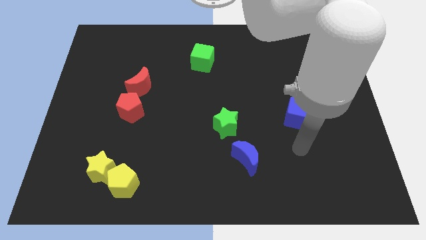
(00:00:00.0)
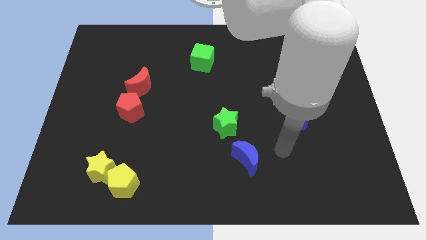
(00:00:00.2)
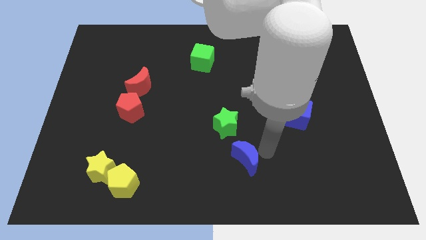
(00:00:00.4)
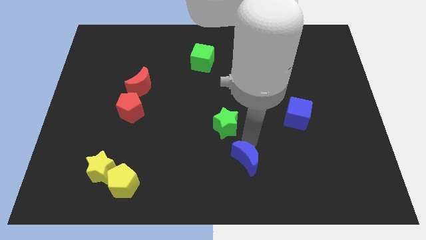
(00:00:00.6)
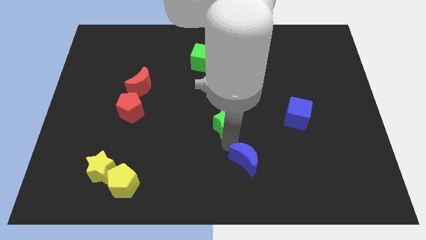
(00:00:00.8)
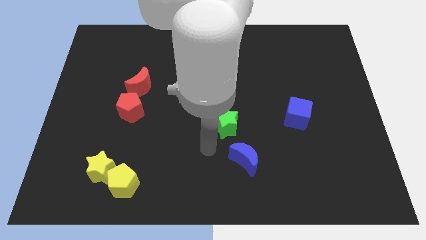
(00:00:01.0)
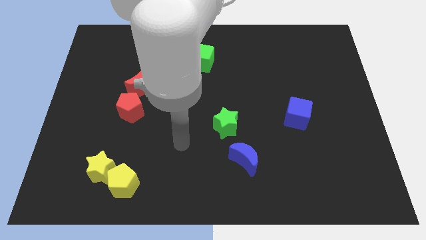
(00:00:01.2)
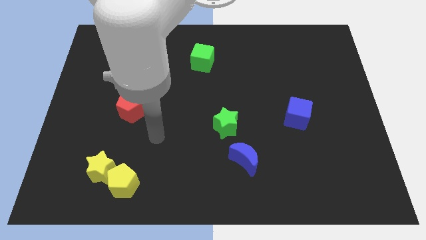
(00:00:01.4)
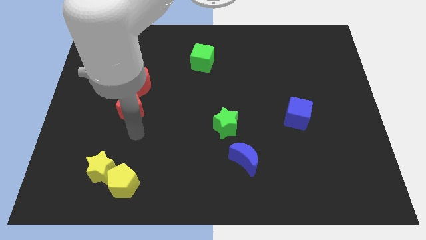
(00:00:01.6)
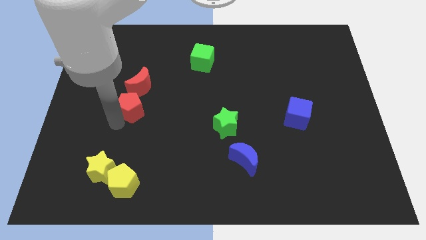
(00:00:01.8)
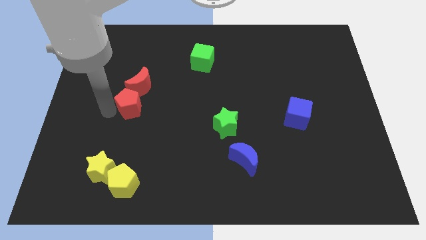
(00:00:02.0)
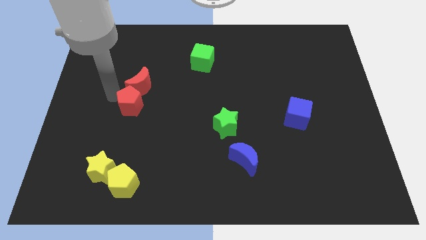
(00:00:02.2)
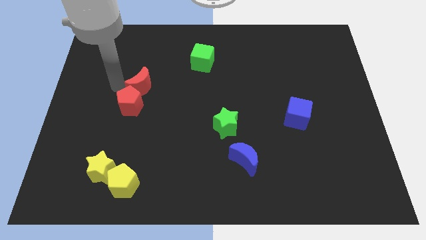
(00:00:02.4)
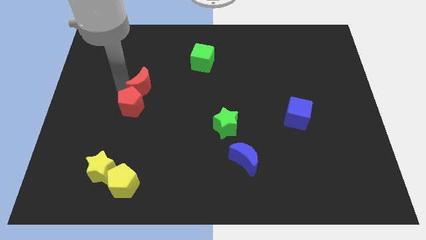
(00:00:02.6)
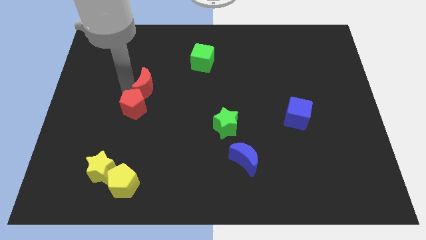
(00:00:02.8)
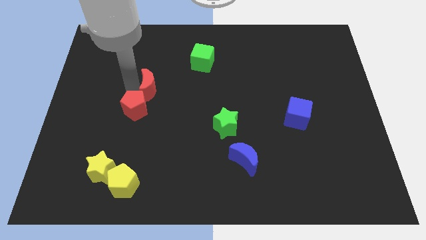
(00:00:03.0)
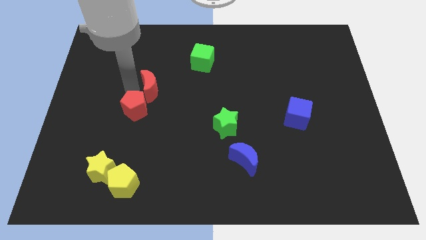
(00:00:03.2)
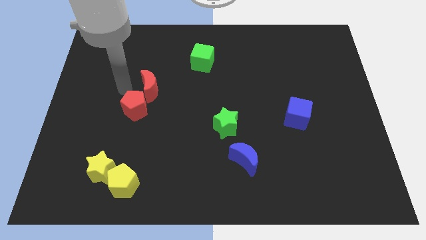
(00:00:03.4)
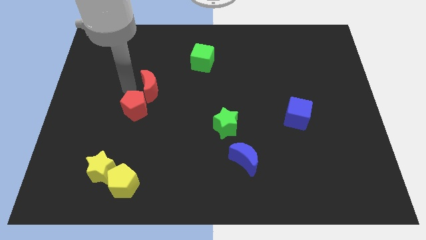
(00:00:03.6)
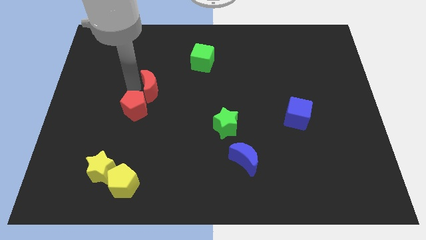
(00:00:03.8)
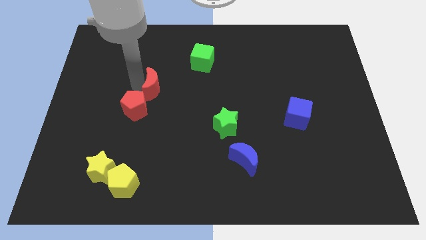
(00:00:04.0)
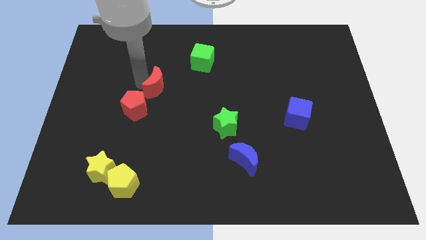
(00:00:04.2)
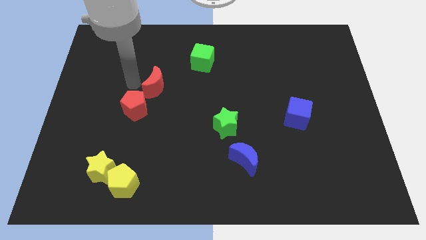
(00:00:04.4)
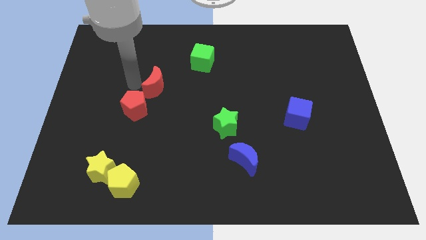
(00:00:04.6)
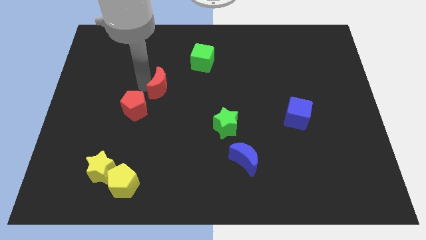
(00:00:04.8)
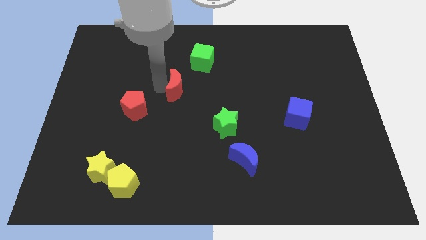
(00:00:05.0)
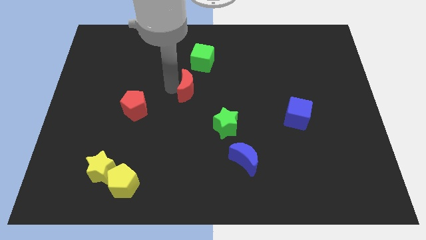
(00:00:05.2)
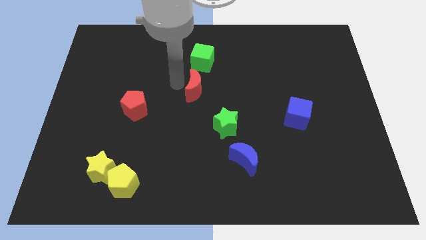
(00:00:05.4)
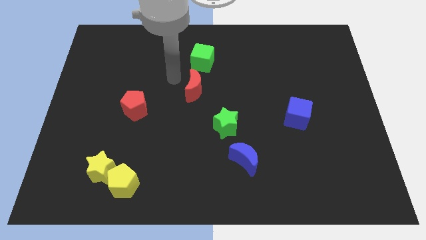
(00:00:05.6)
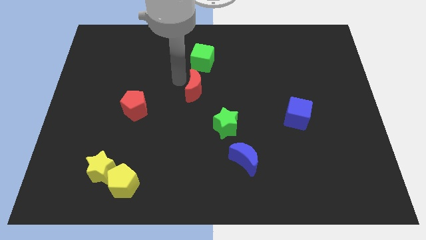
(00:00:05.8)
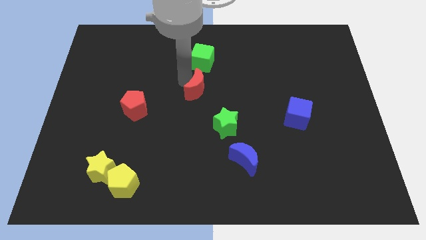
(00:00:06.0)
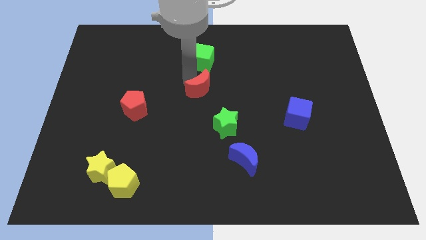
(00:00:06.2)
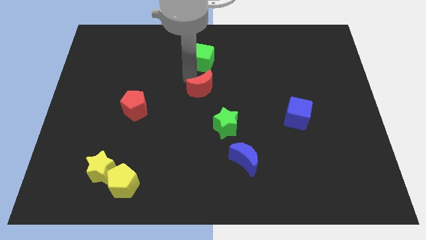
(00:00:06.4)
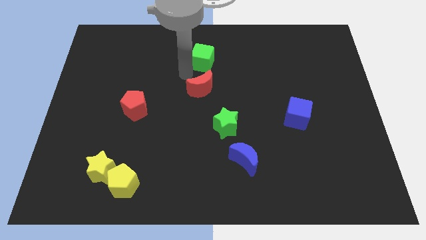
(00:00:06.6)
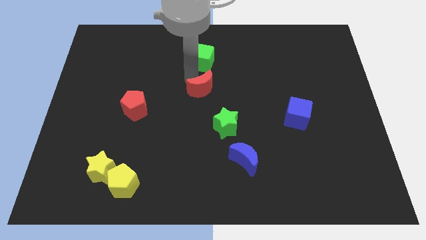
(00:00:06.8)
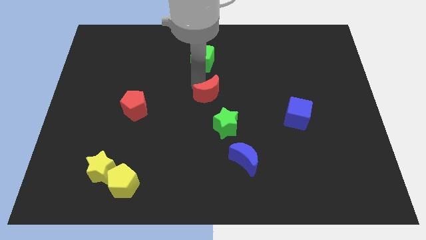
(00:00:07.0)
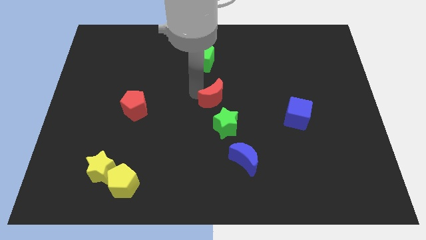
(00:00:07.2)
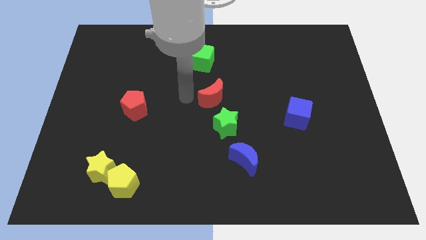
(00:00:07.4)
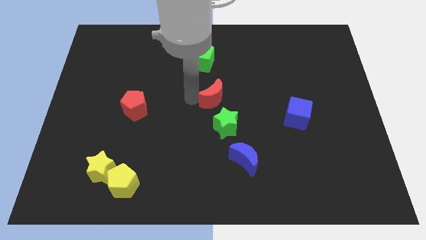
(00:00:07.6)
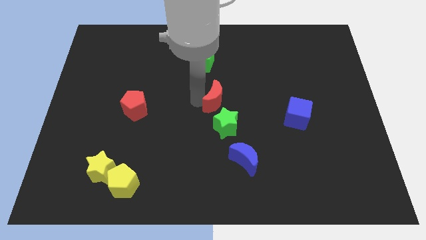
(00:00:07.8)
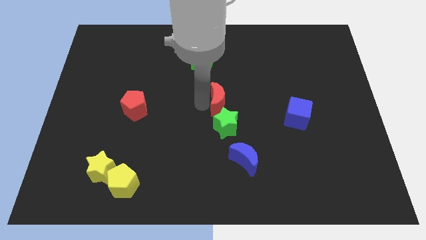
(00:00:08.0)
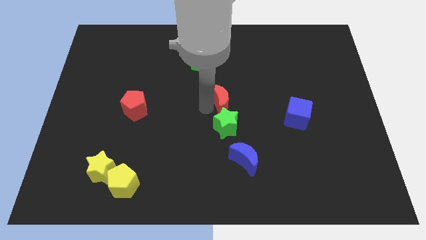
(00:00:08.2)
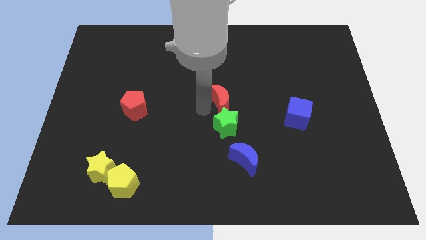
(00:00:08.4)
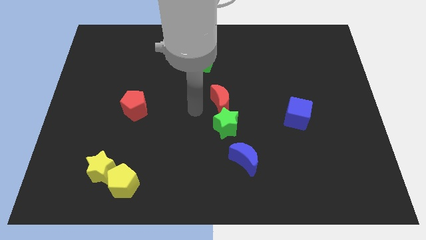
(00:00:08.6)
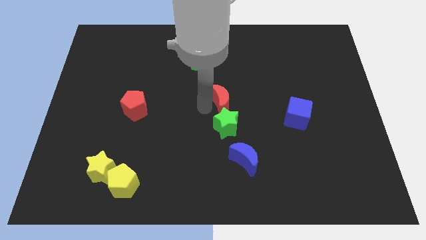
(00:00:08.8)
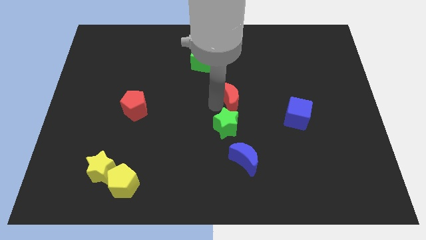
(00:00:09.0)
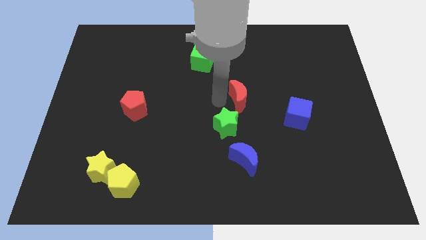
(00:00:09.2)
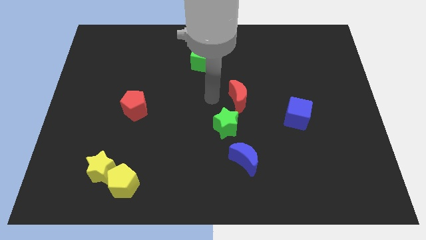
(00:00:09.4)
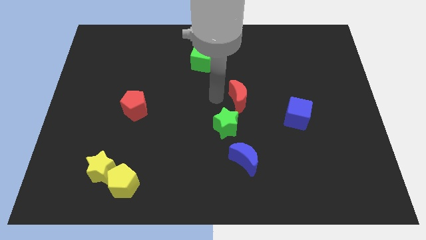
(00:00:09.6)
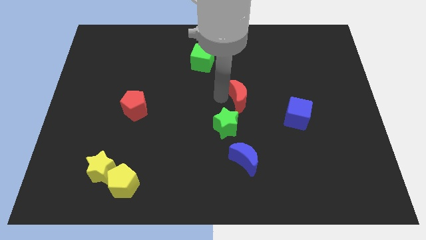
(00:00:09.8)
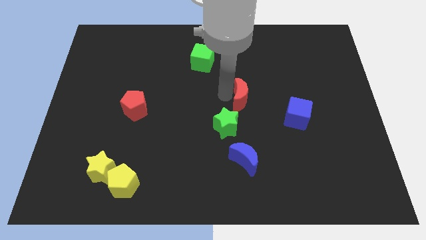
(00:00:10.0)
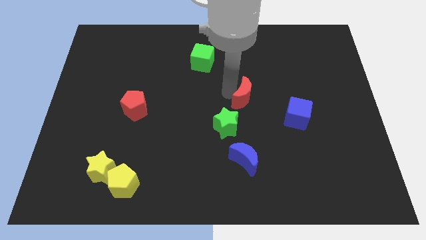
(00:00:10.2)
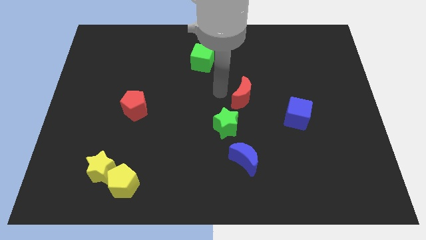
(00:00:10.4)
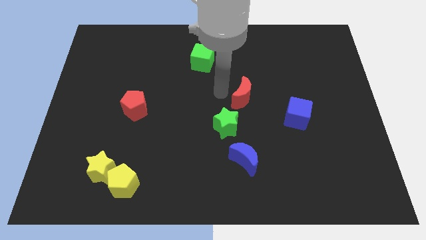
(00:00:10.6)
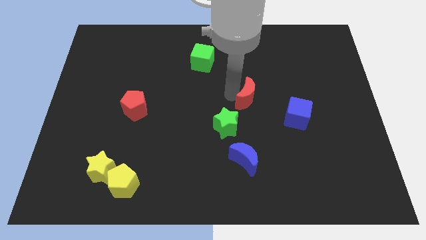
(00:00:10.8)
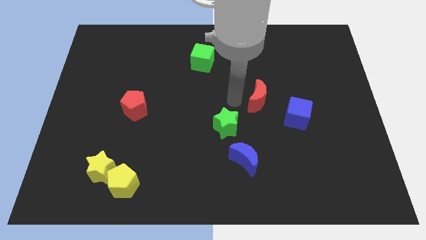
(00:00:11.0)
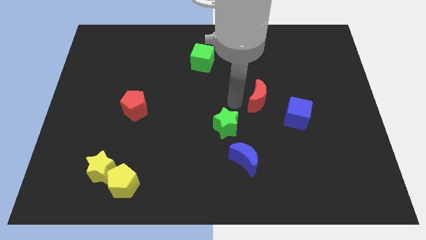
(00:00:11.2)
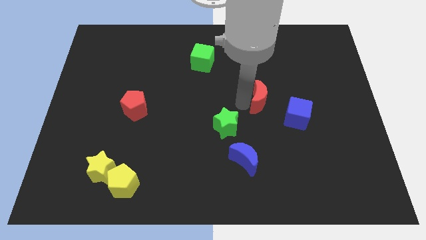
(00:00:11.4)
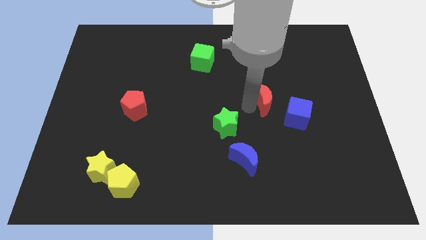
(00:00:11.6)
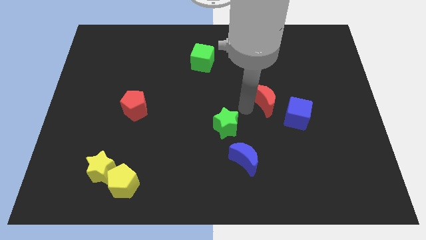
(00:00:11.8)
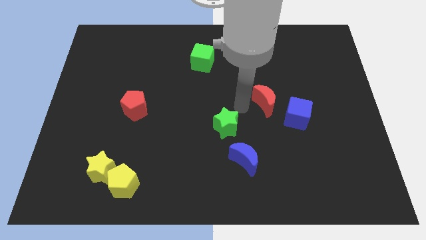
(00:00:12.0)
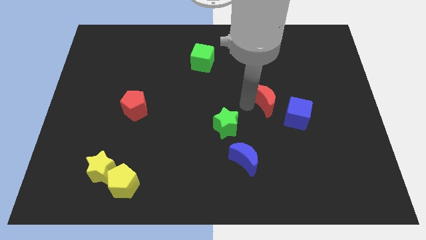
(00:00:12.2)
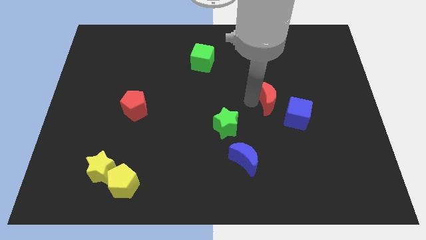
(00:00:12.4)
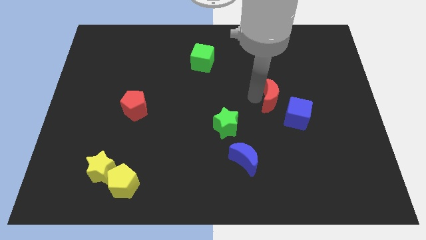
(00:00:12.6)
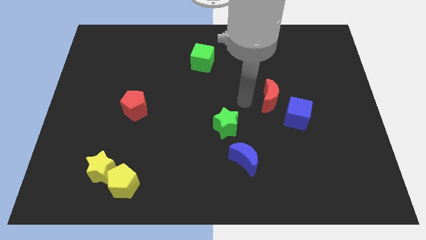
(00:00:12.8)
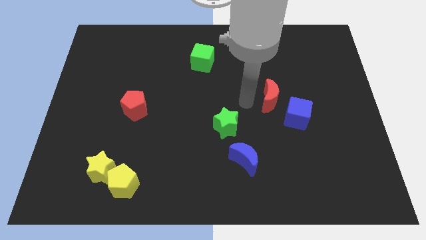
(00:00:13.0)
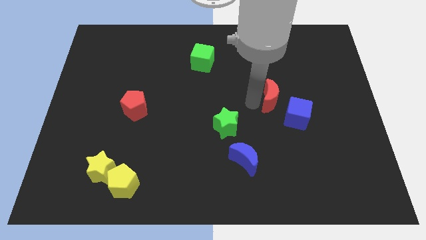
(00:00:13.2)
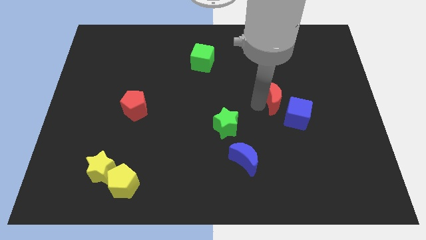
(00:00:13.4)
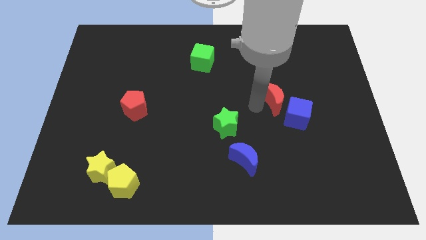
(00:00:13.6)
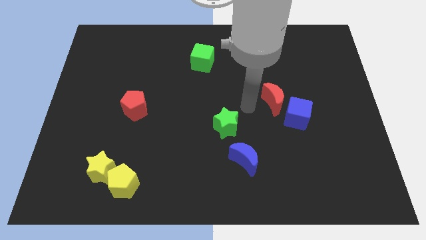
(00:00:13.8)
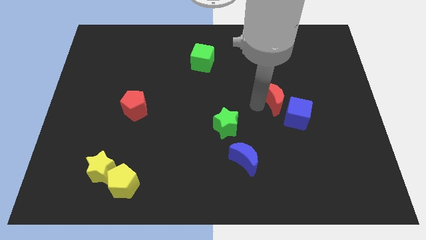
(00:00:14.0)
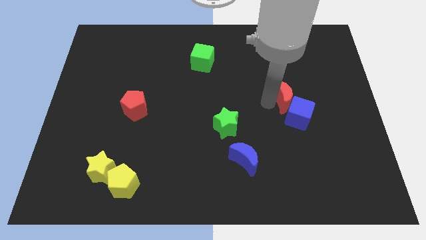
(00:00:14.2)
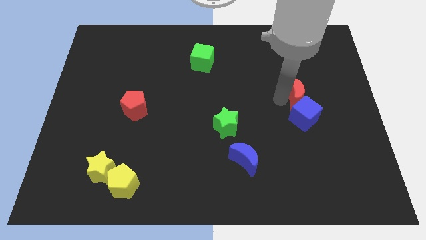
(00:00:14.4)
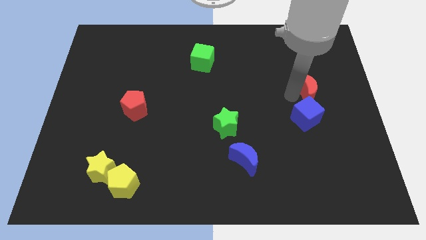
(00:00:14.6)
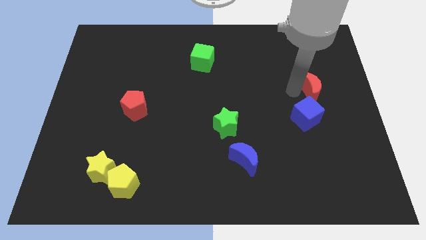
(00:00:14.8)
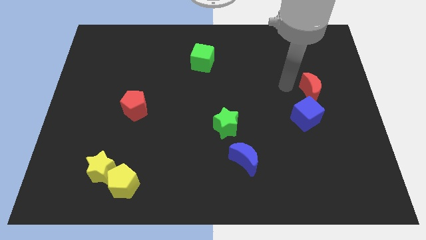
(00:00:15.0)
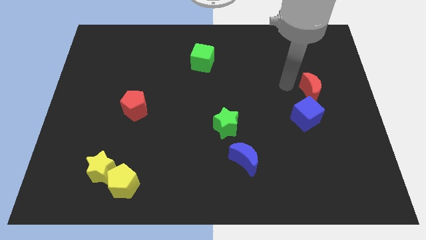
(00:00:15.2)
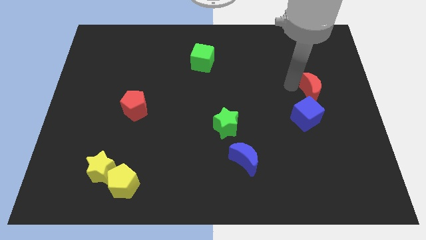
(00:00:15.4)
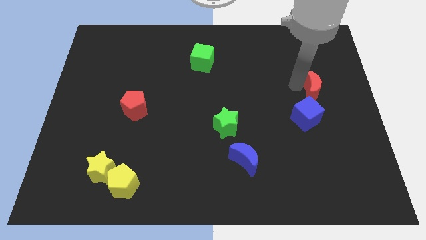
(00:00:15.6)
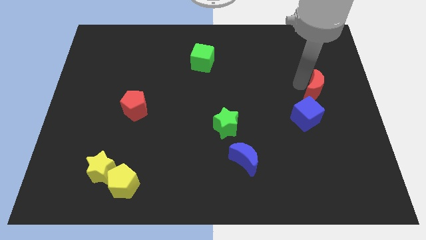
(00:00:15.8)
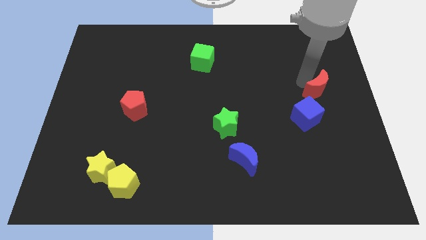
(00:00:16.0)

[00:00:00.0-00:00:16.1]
slide the red moon to the right side
